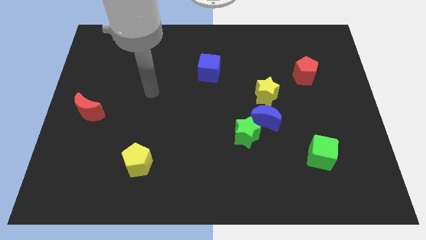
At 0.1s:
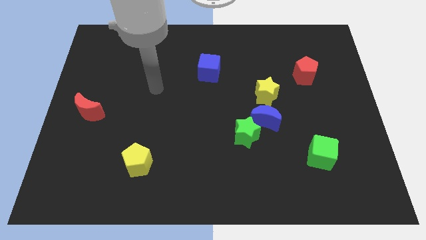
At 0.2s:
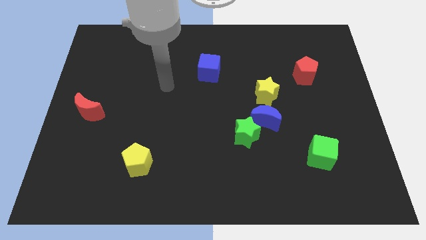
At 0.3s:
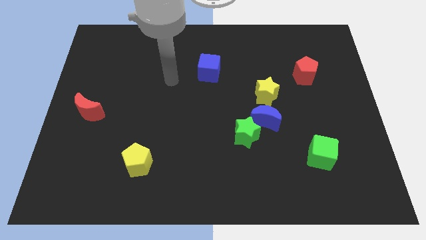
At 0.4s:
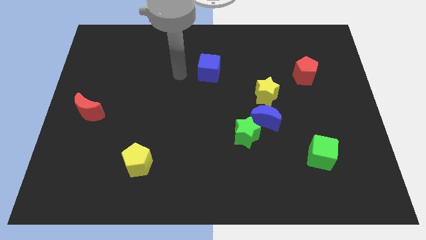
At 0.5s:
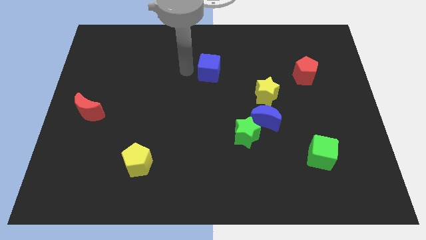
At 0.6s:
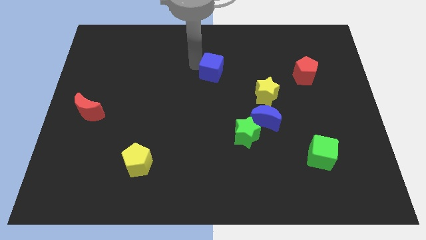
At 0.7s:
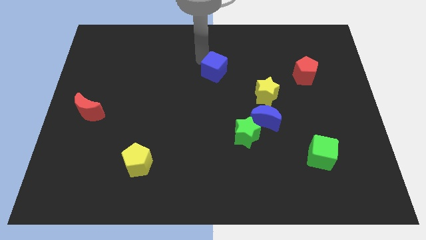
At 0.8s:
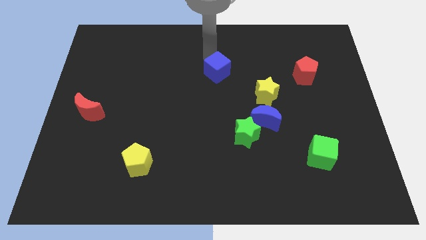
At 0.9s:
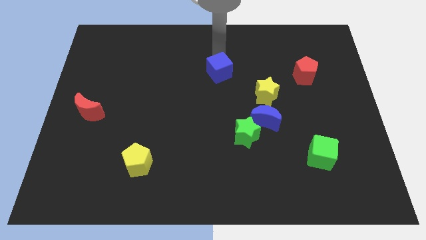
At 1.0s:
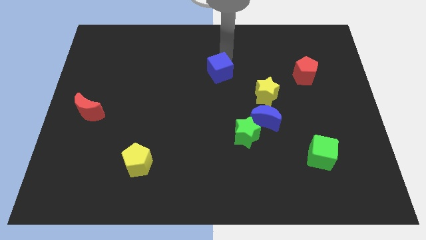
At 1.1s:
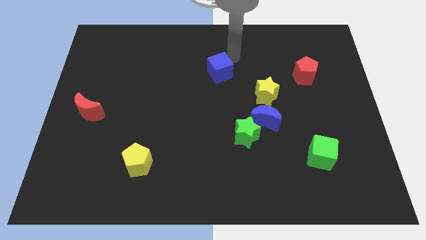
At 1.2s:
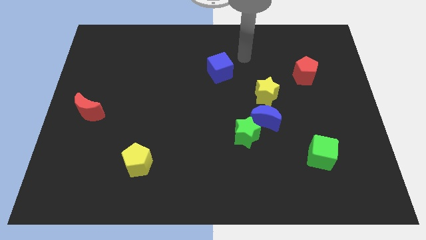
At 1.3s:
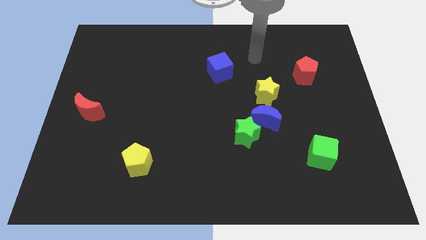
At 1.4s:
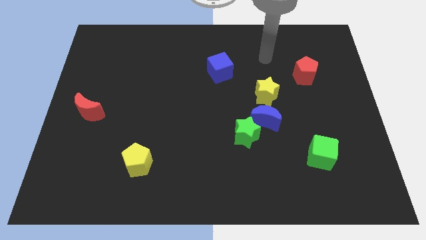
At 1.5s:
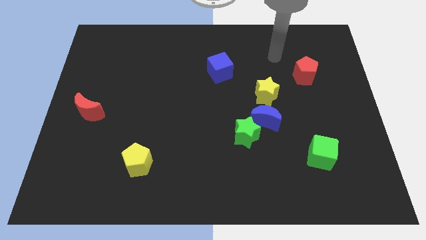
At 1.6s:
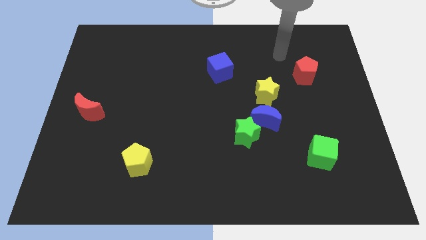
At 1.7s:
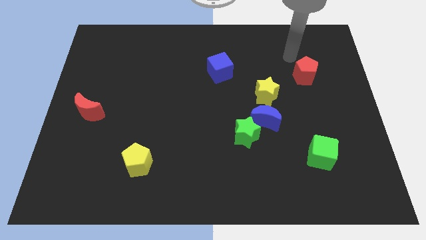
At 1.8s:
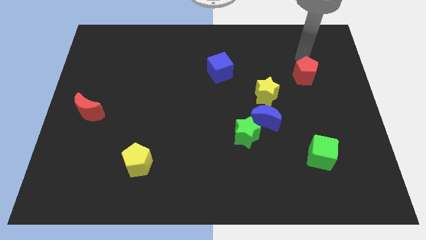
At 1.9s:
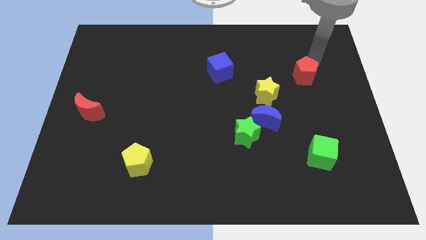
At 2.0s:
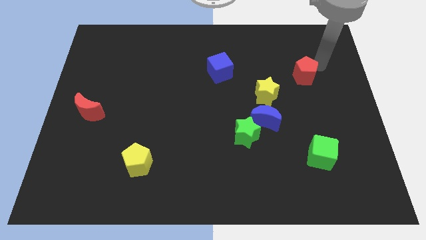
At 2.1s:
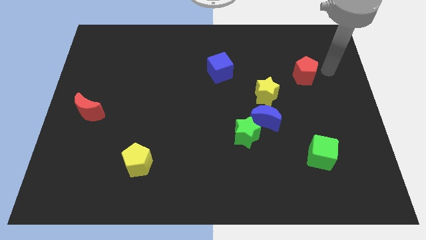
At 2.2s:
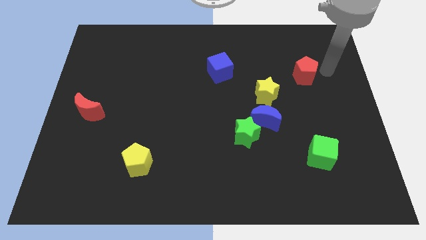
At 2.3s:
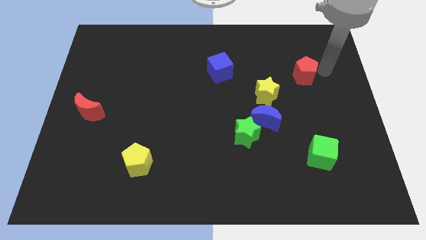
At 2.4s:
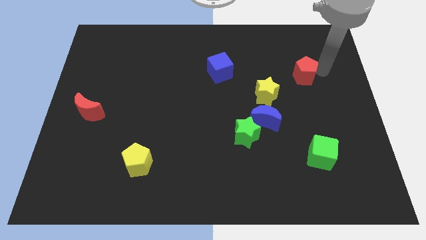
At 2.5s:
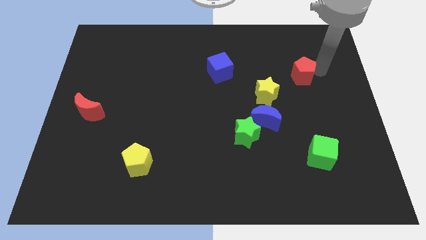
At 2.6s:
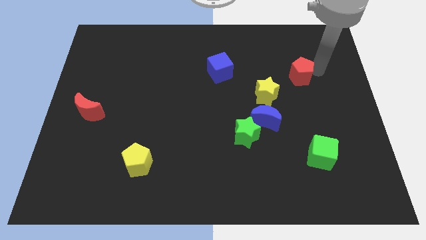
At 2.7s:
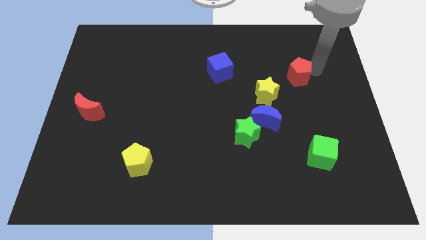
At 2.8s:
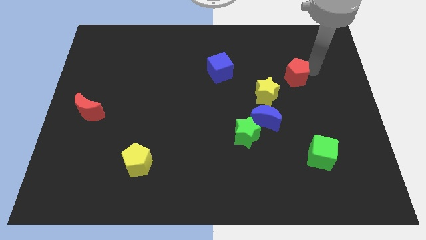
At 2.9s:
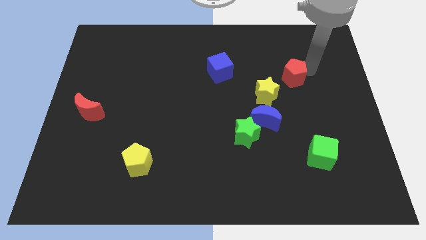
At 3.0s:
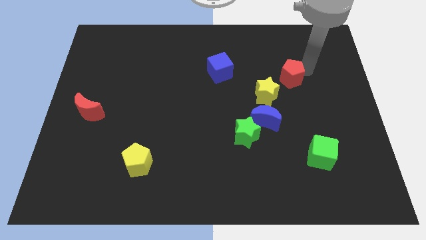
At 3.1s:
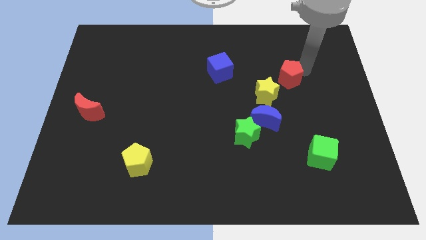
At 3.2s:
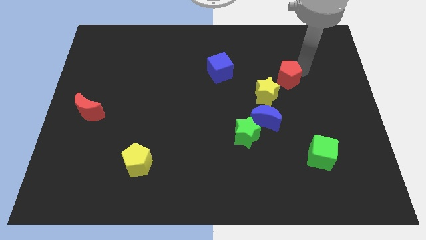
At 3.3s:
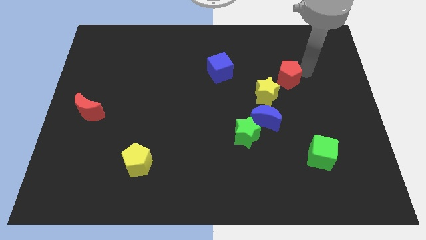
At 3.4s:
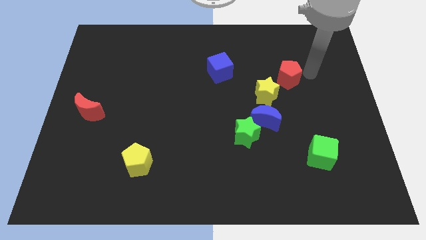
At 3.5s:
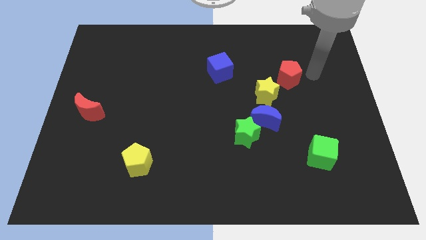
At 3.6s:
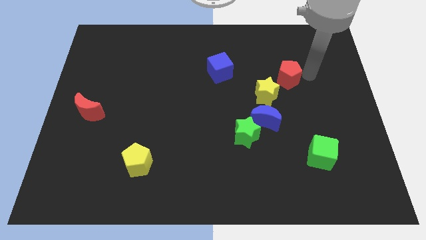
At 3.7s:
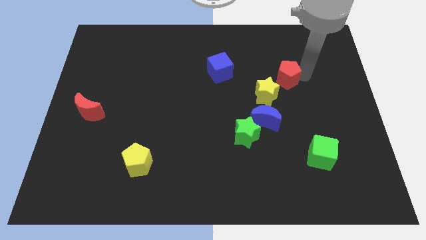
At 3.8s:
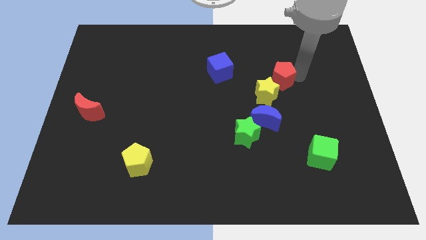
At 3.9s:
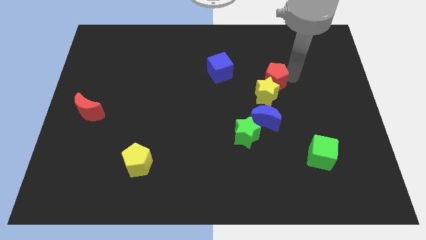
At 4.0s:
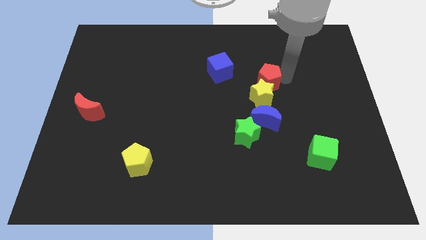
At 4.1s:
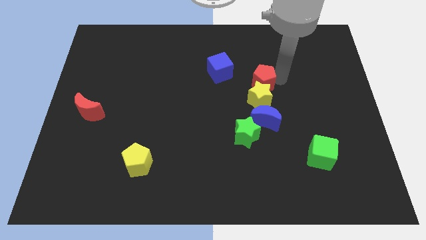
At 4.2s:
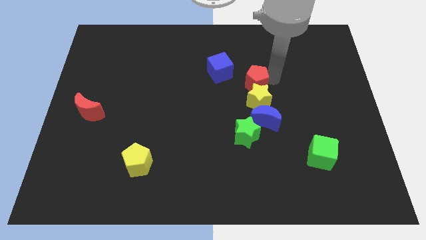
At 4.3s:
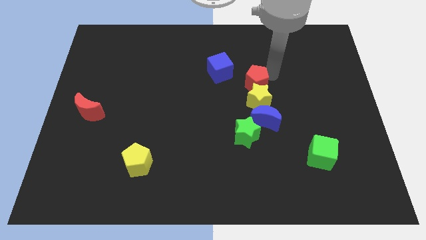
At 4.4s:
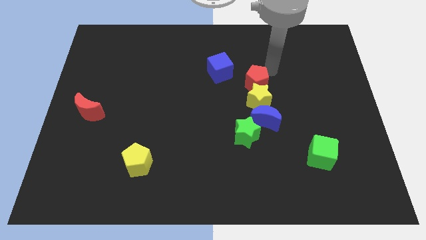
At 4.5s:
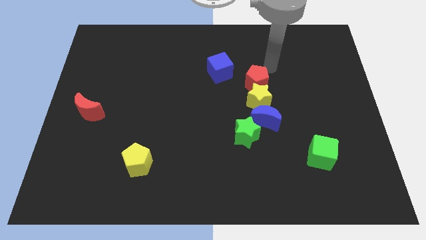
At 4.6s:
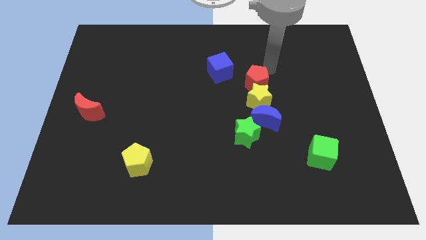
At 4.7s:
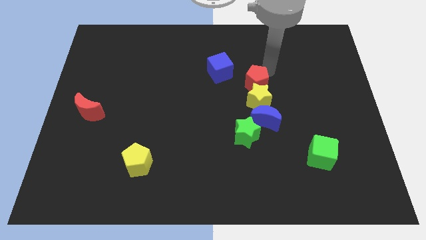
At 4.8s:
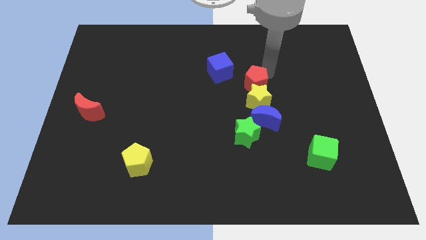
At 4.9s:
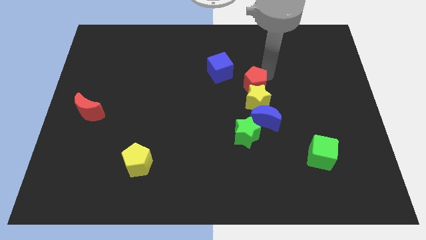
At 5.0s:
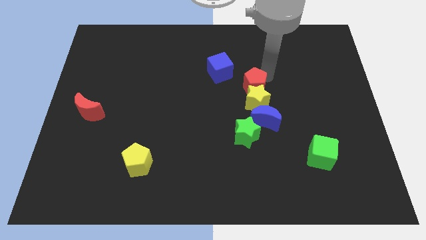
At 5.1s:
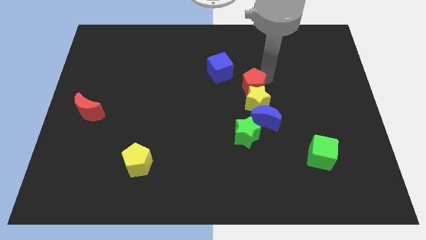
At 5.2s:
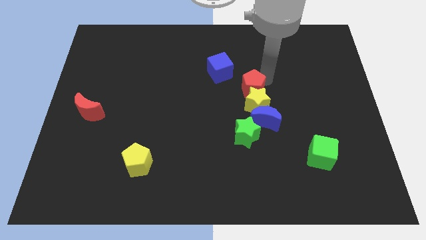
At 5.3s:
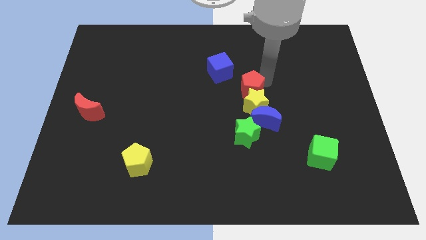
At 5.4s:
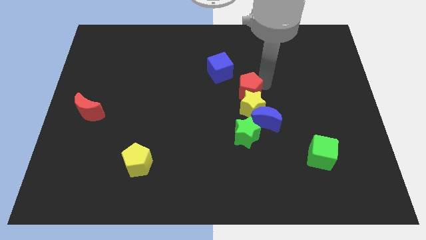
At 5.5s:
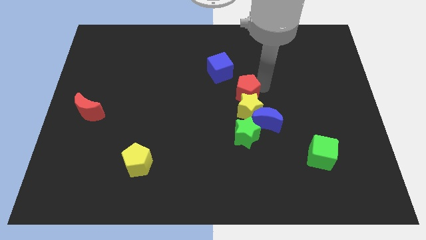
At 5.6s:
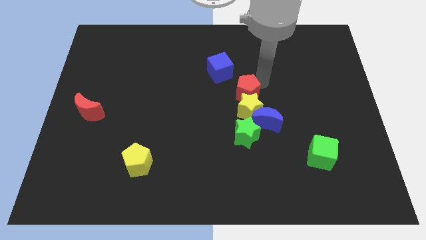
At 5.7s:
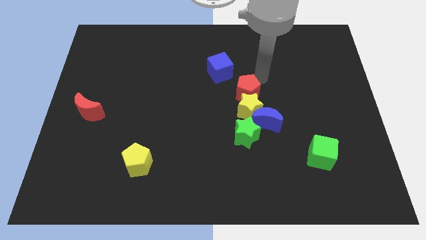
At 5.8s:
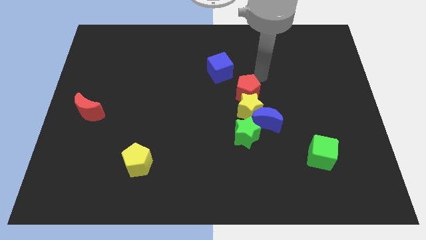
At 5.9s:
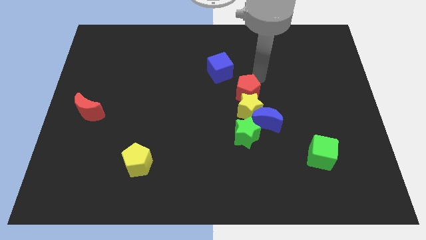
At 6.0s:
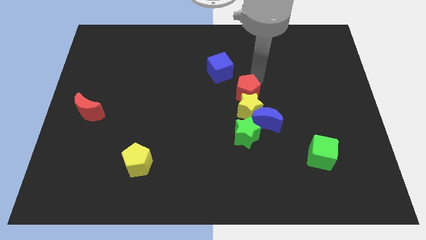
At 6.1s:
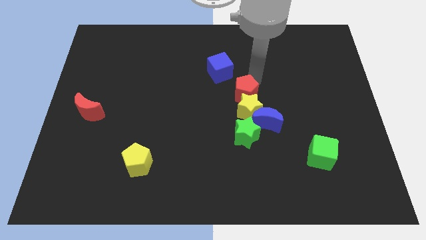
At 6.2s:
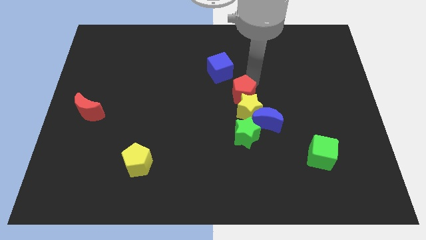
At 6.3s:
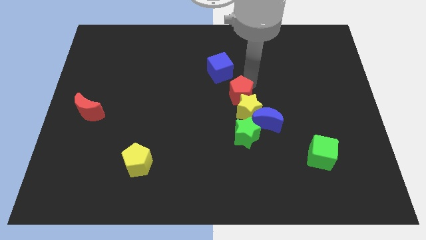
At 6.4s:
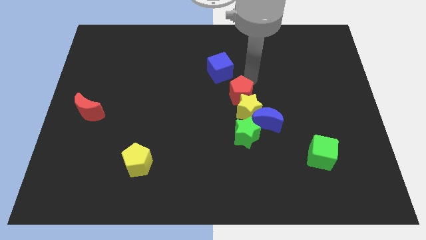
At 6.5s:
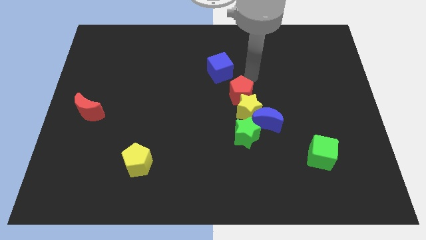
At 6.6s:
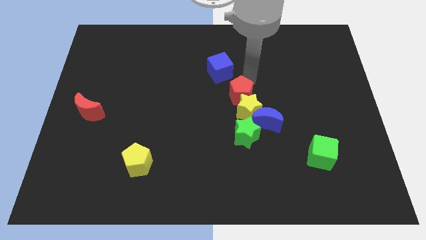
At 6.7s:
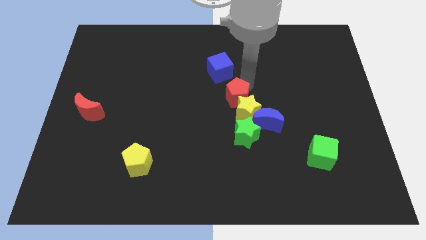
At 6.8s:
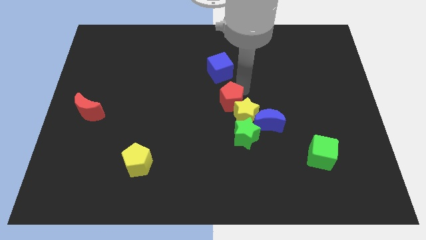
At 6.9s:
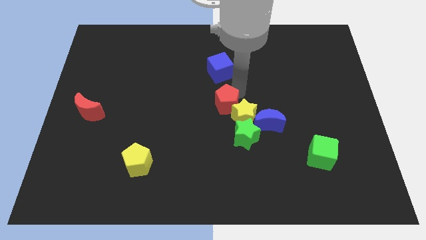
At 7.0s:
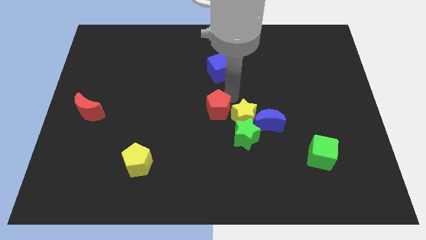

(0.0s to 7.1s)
slide the red pentagon down and to the left

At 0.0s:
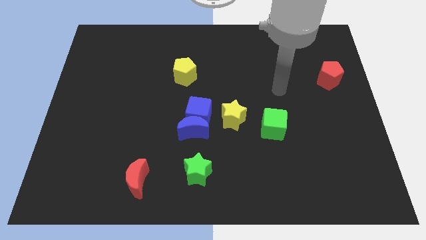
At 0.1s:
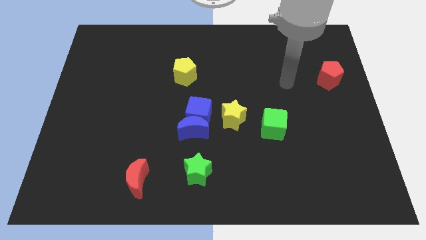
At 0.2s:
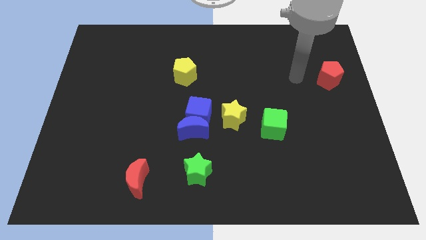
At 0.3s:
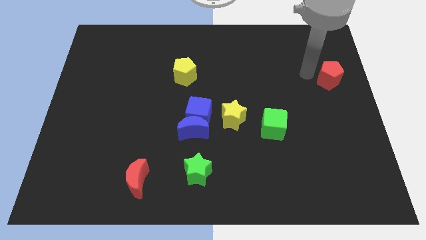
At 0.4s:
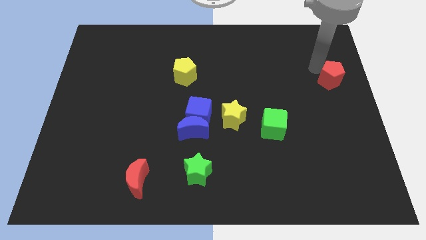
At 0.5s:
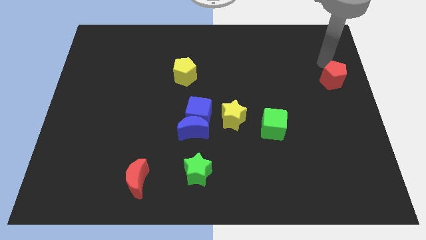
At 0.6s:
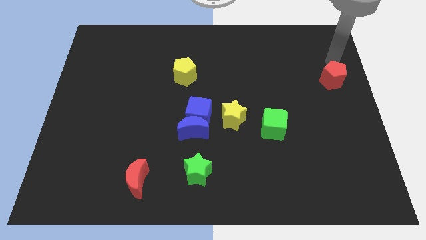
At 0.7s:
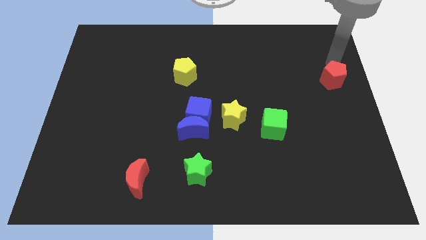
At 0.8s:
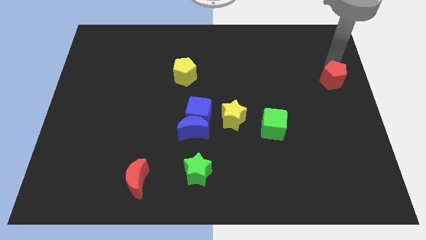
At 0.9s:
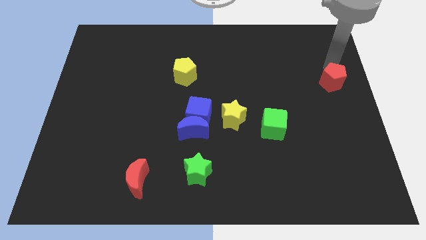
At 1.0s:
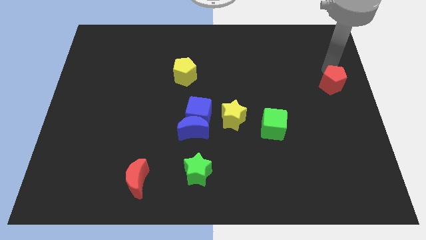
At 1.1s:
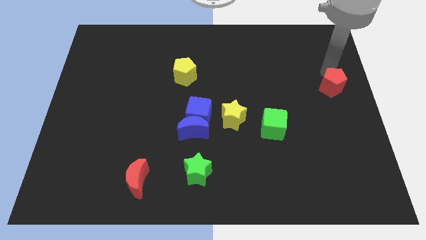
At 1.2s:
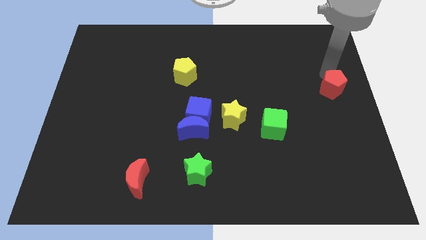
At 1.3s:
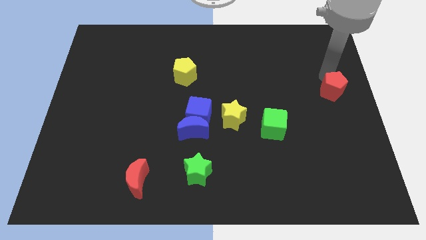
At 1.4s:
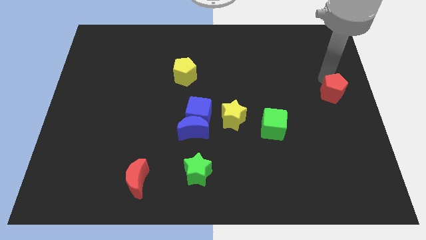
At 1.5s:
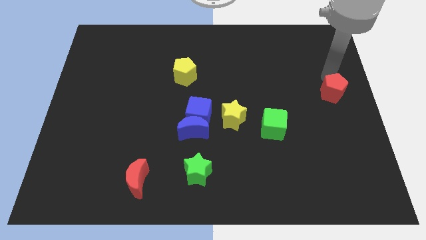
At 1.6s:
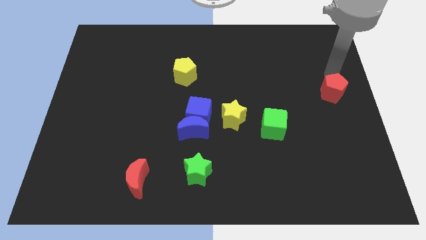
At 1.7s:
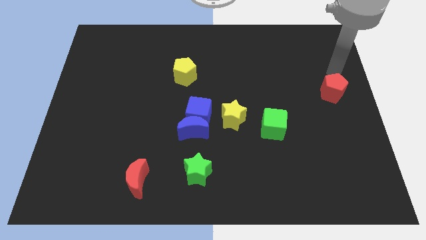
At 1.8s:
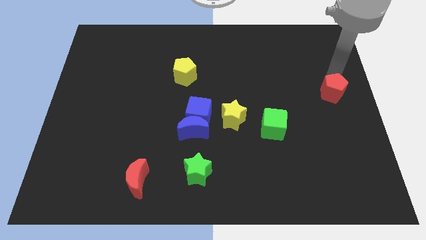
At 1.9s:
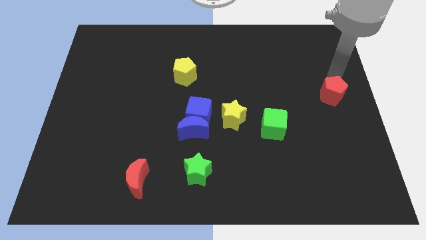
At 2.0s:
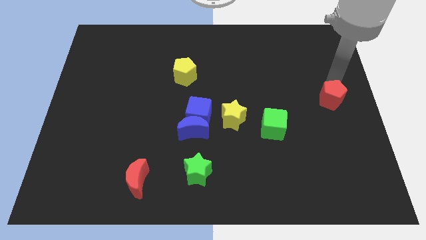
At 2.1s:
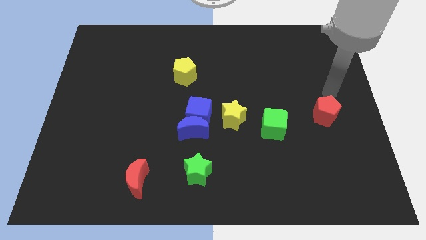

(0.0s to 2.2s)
slide the red pentagon a little bit down
